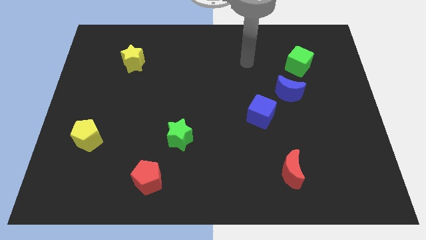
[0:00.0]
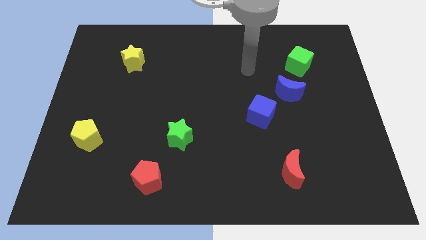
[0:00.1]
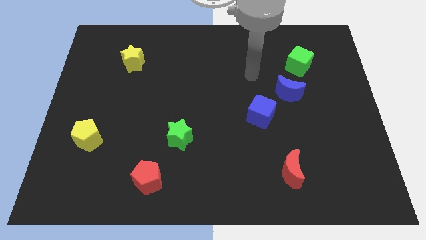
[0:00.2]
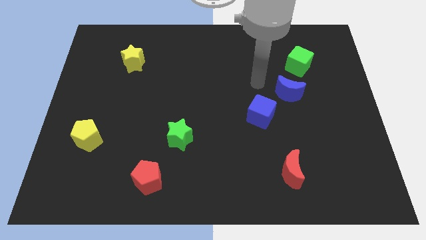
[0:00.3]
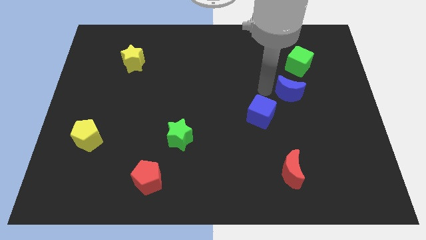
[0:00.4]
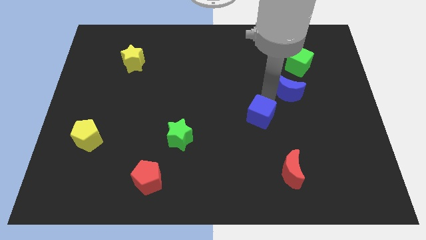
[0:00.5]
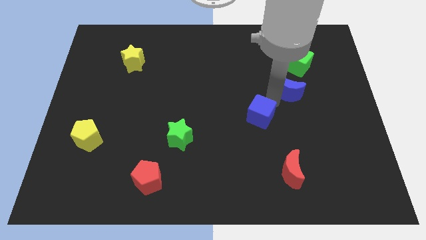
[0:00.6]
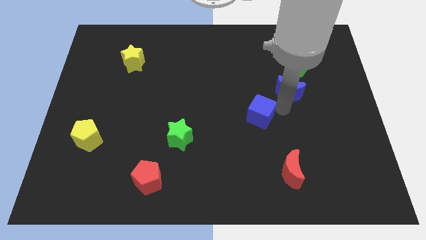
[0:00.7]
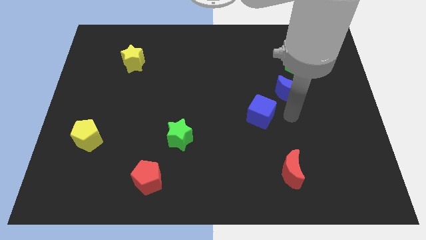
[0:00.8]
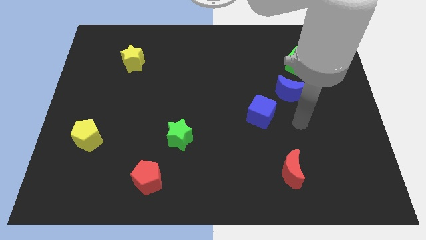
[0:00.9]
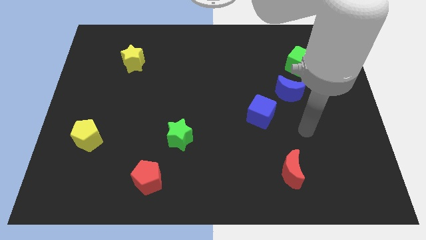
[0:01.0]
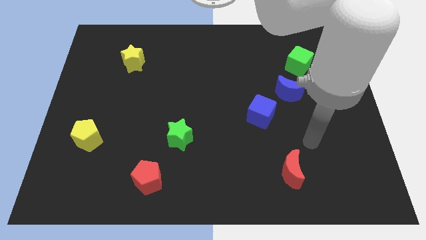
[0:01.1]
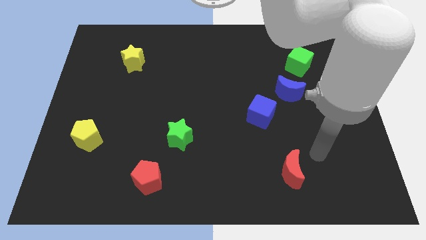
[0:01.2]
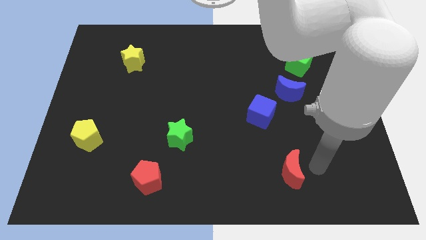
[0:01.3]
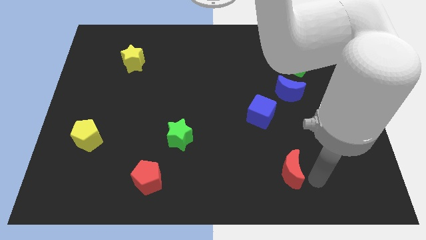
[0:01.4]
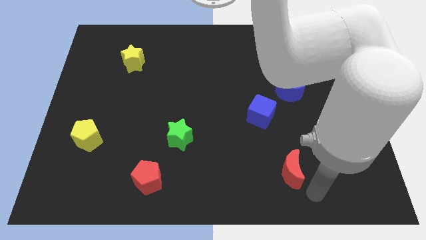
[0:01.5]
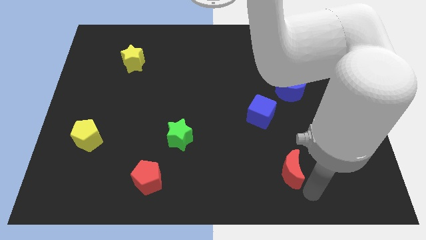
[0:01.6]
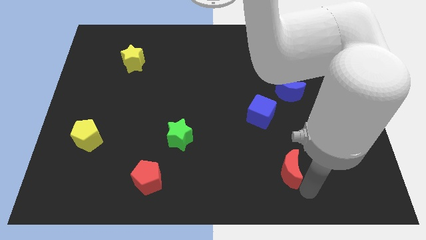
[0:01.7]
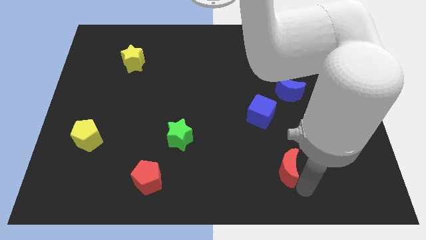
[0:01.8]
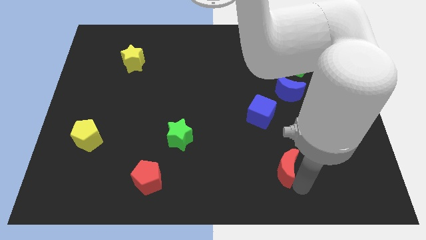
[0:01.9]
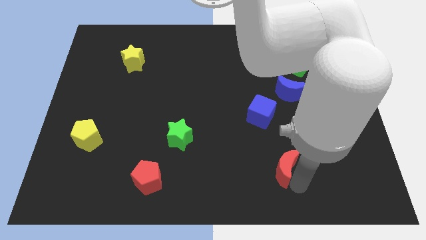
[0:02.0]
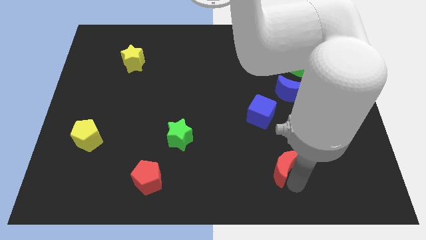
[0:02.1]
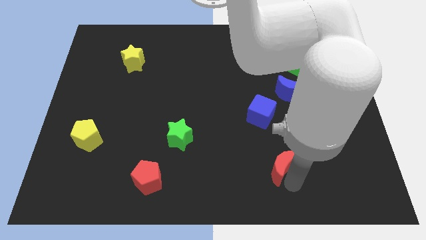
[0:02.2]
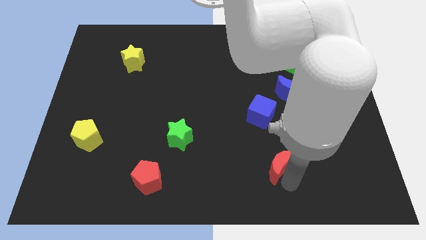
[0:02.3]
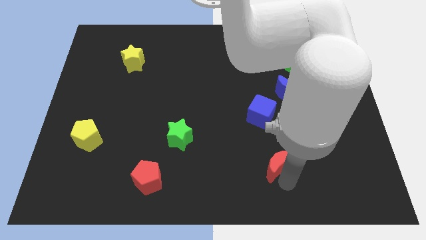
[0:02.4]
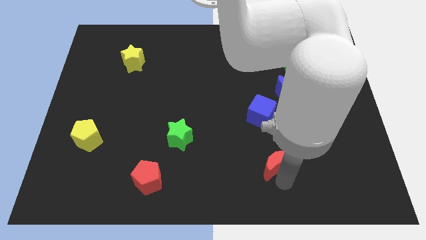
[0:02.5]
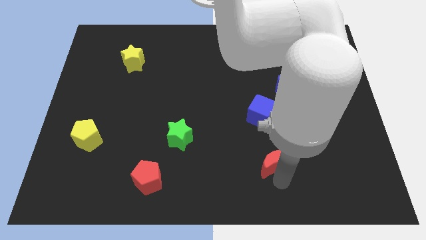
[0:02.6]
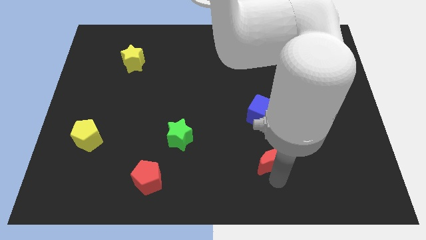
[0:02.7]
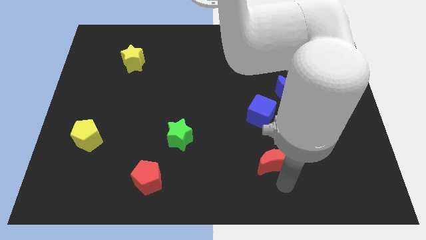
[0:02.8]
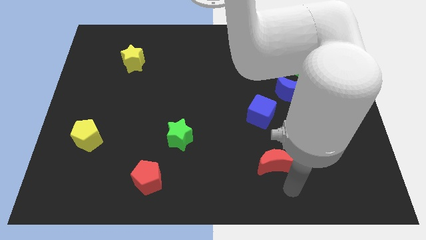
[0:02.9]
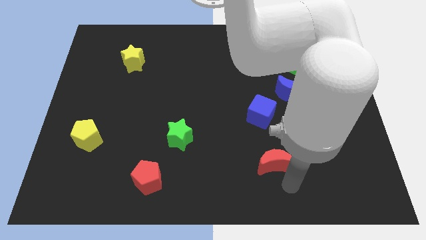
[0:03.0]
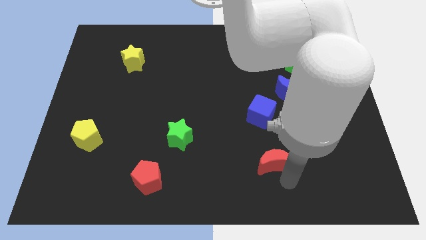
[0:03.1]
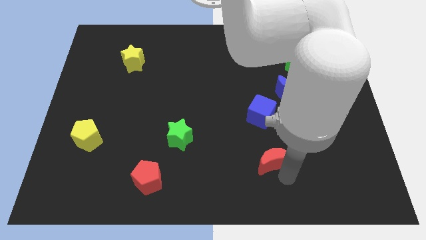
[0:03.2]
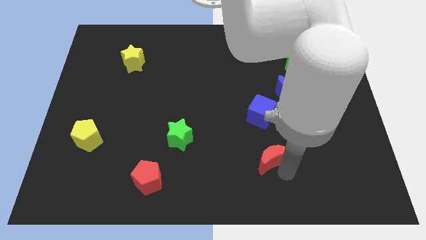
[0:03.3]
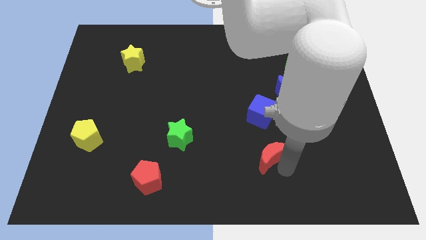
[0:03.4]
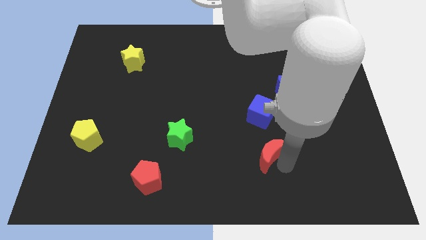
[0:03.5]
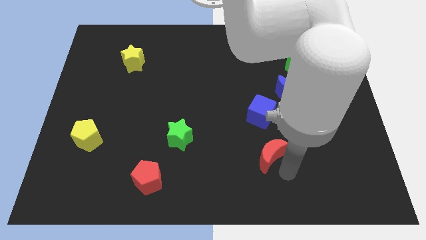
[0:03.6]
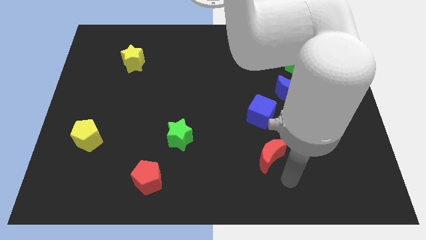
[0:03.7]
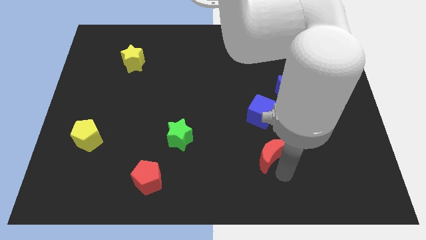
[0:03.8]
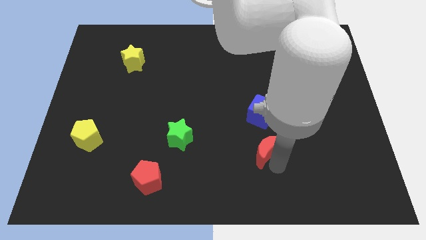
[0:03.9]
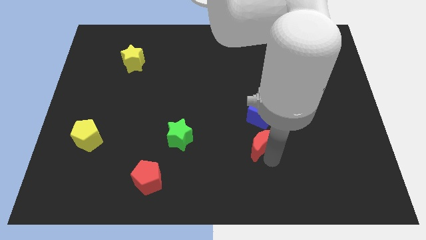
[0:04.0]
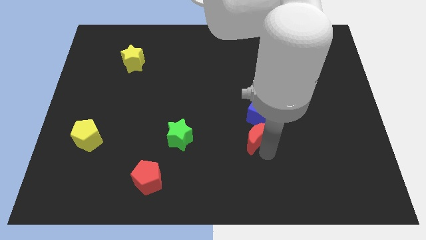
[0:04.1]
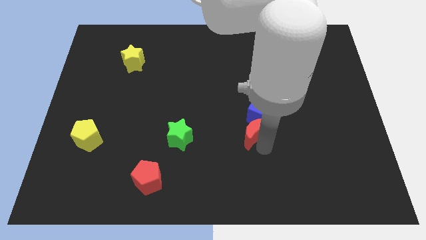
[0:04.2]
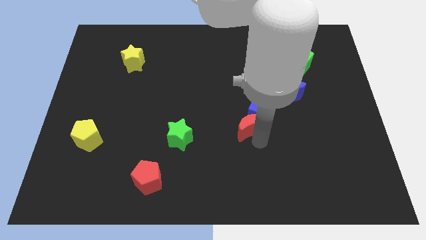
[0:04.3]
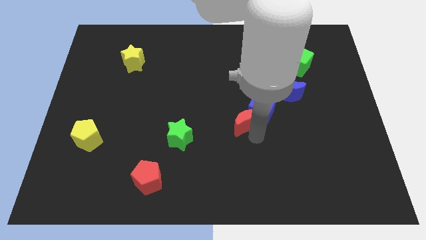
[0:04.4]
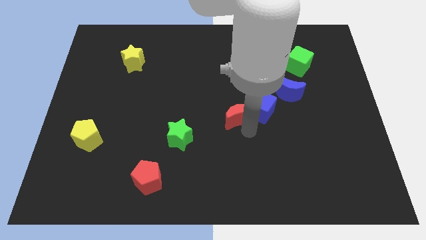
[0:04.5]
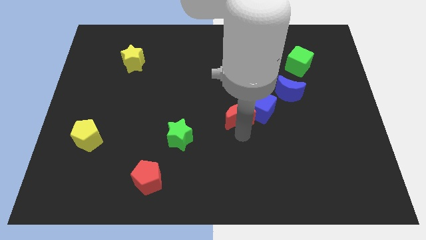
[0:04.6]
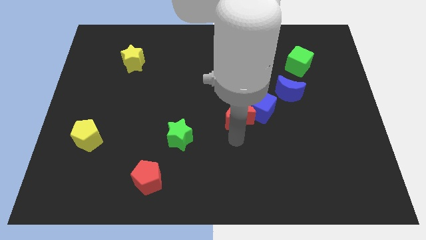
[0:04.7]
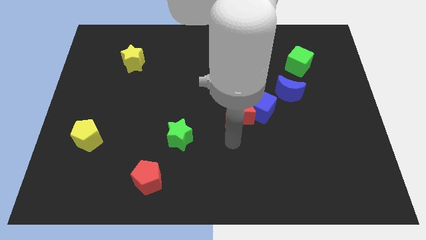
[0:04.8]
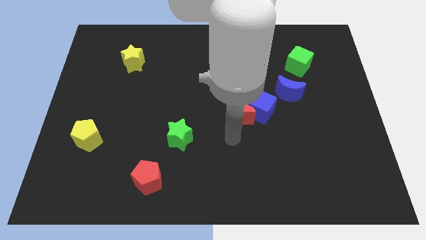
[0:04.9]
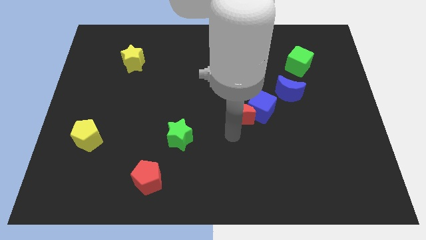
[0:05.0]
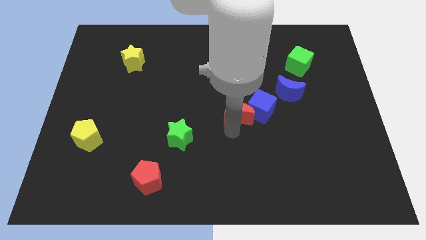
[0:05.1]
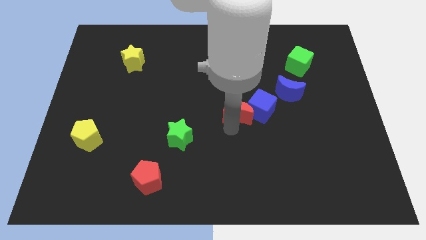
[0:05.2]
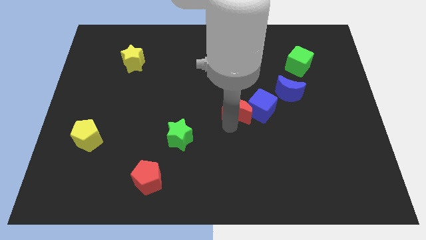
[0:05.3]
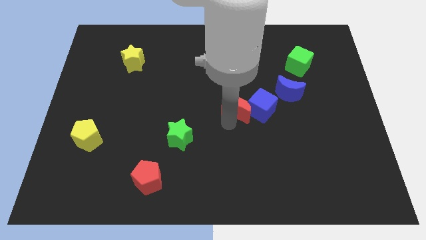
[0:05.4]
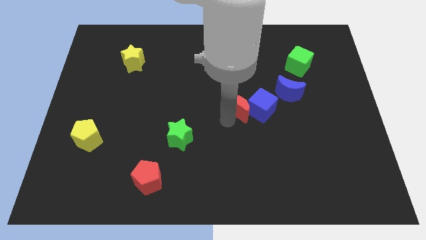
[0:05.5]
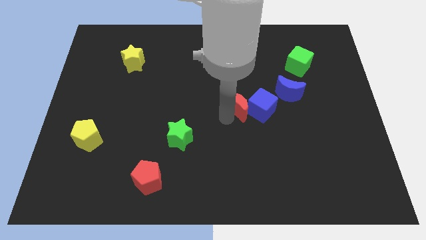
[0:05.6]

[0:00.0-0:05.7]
move the red moon left of the blue moon

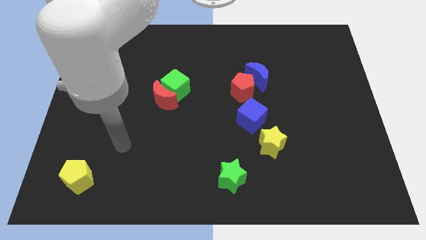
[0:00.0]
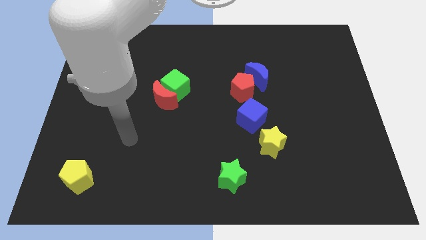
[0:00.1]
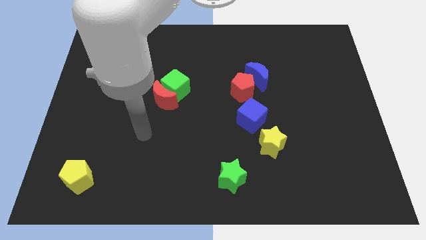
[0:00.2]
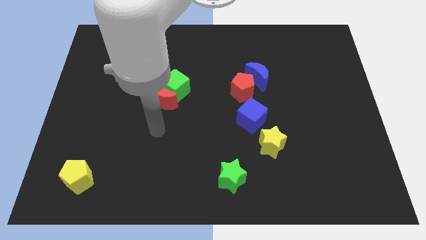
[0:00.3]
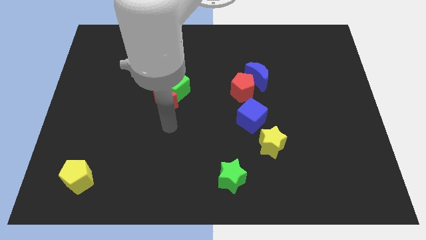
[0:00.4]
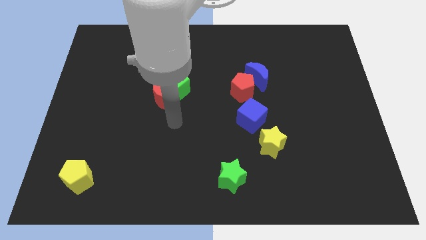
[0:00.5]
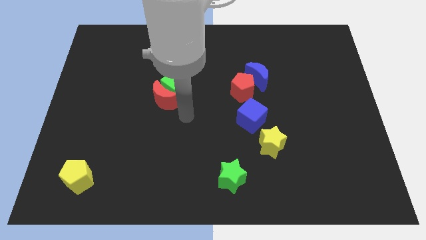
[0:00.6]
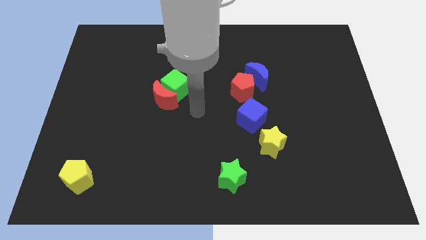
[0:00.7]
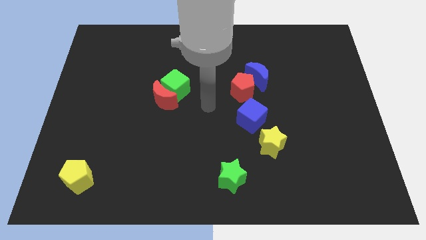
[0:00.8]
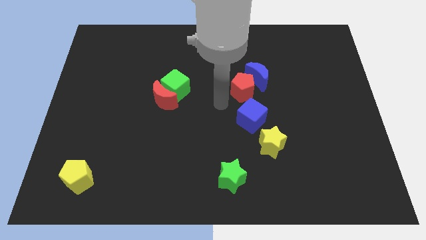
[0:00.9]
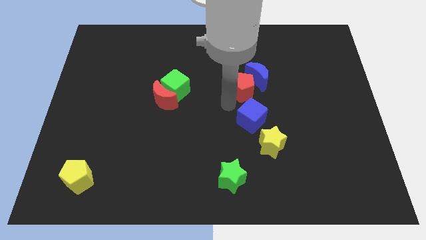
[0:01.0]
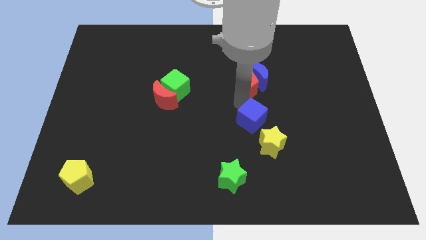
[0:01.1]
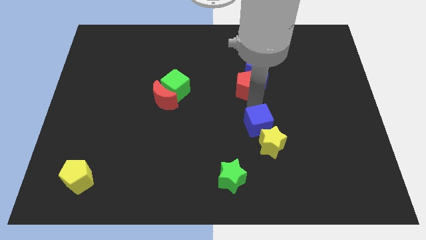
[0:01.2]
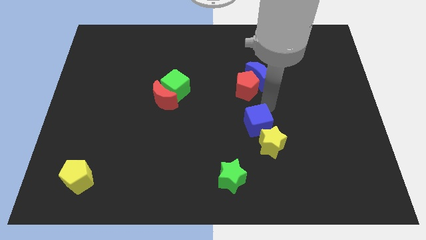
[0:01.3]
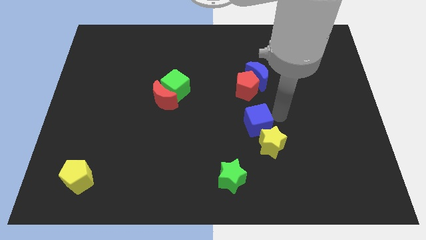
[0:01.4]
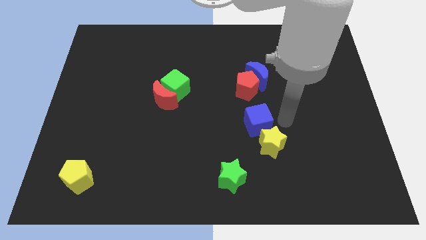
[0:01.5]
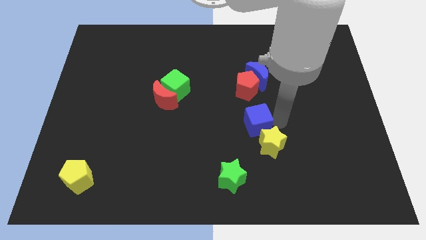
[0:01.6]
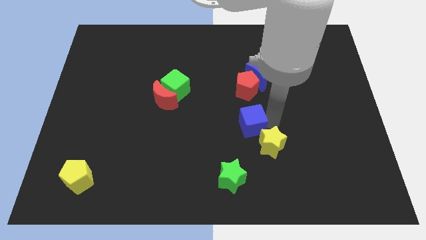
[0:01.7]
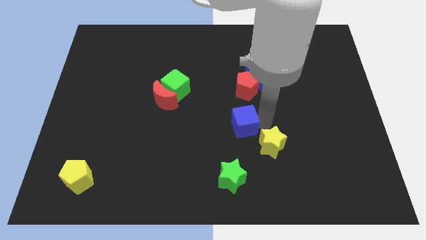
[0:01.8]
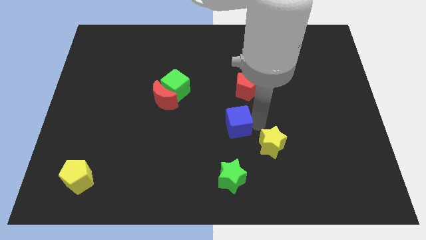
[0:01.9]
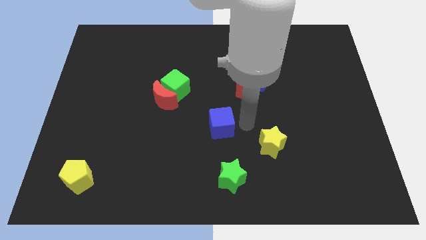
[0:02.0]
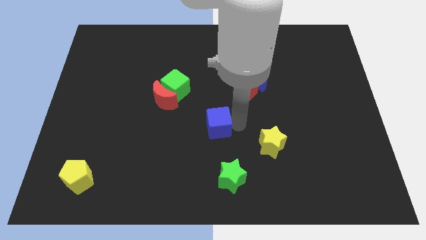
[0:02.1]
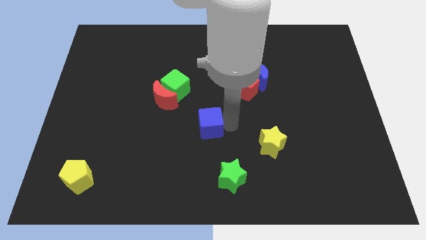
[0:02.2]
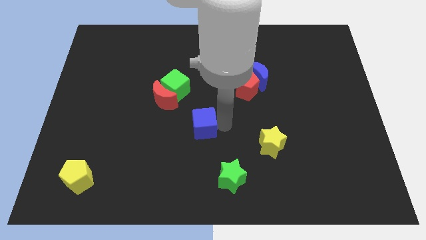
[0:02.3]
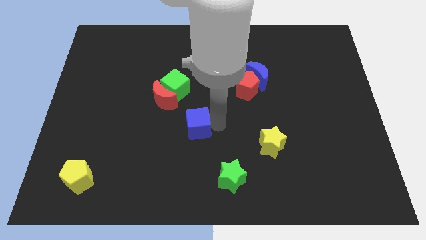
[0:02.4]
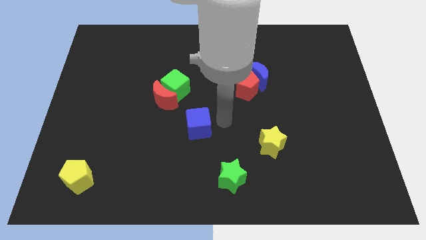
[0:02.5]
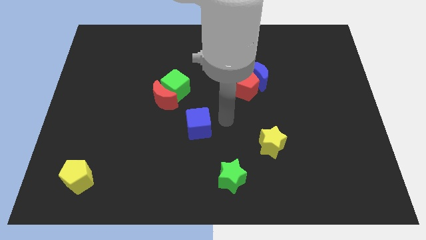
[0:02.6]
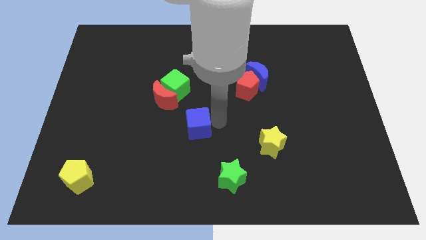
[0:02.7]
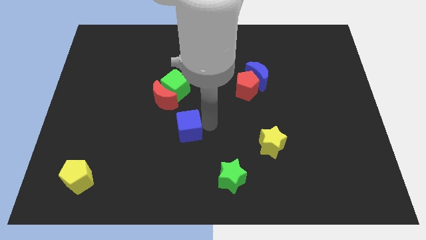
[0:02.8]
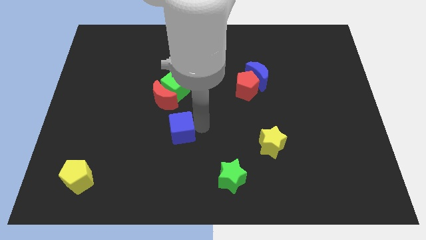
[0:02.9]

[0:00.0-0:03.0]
push the blue cube below the red moon
